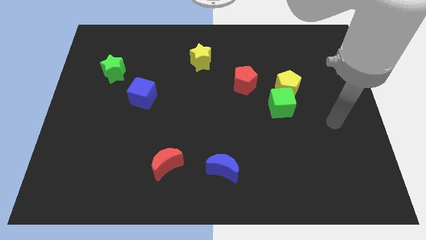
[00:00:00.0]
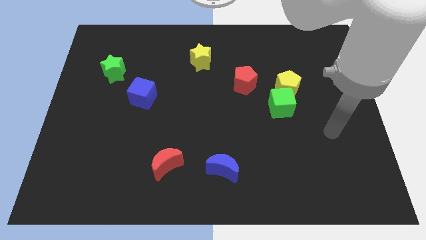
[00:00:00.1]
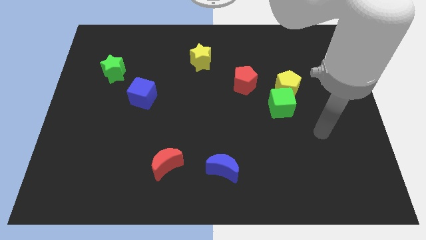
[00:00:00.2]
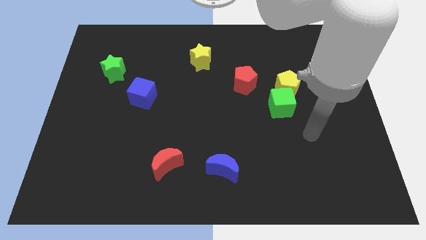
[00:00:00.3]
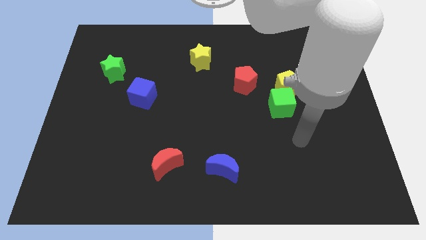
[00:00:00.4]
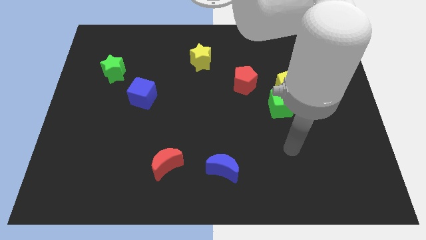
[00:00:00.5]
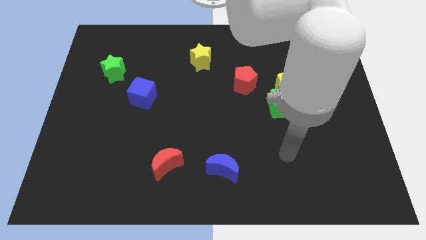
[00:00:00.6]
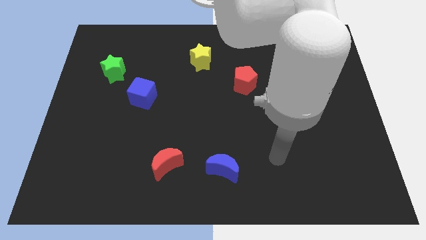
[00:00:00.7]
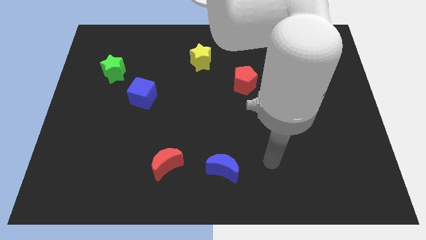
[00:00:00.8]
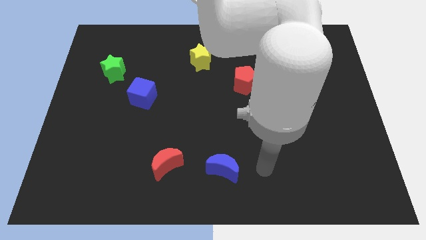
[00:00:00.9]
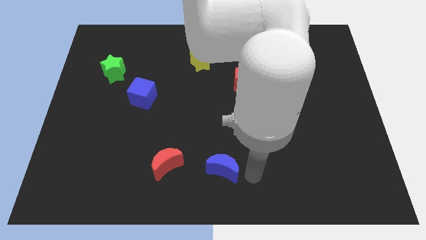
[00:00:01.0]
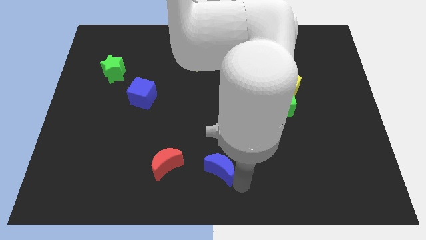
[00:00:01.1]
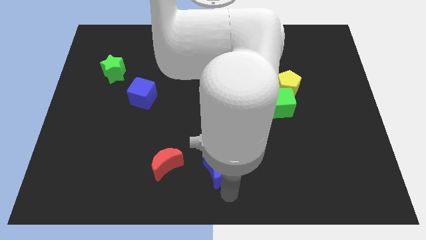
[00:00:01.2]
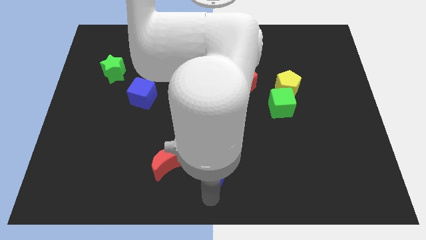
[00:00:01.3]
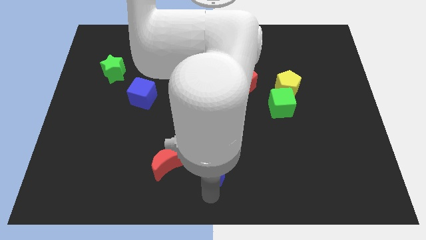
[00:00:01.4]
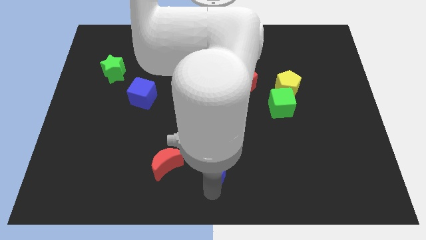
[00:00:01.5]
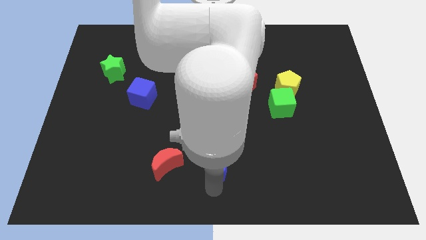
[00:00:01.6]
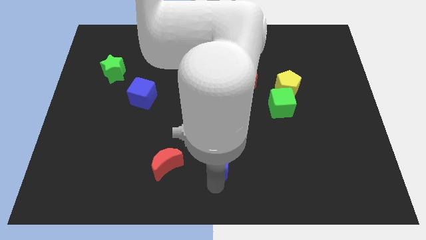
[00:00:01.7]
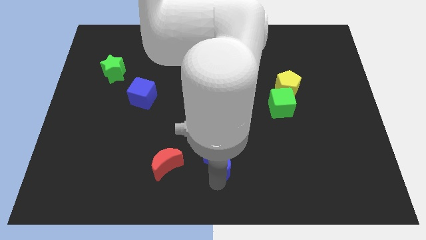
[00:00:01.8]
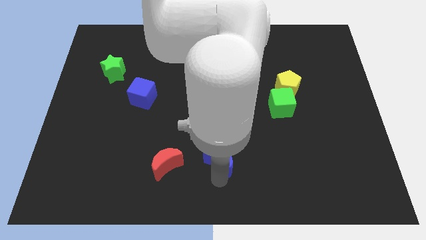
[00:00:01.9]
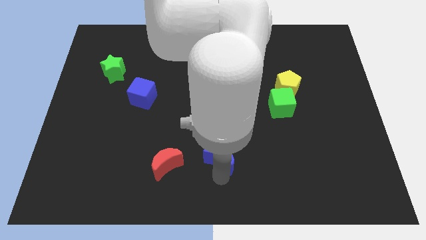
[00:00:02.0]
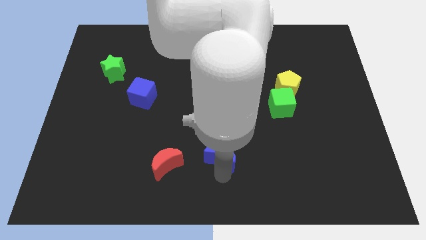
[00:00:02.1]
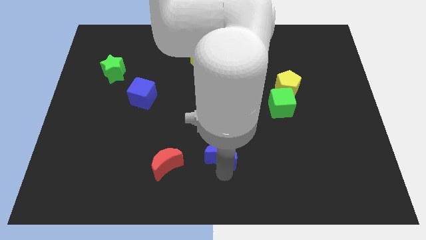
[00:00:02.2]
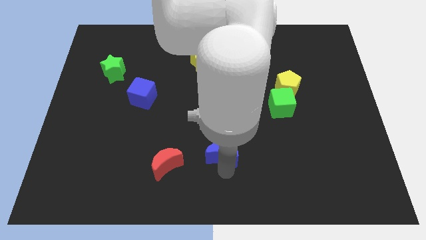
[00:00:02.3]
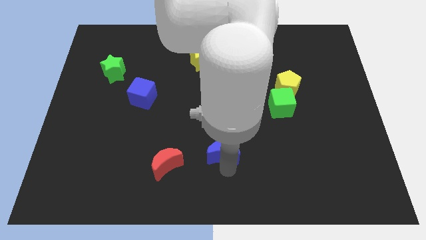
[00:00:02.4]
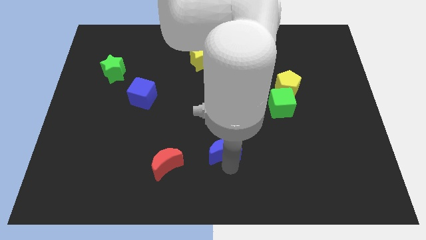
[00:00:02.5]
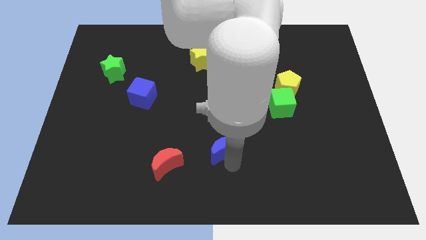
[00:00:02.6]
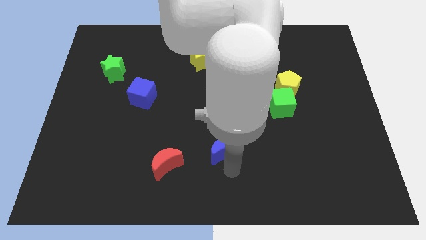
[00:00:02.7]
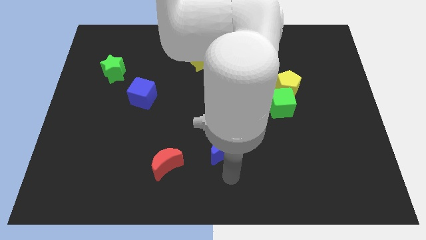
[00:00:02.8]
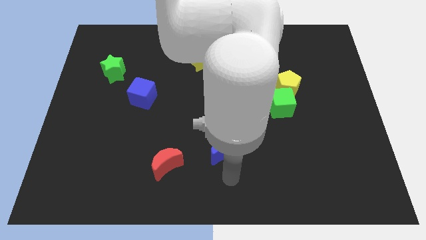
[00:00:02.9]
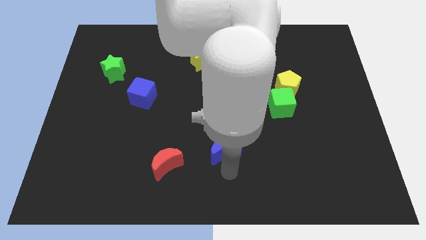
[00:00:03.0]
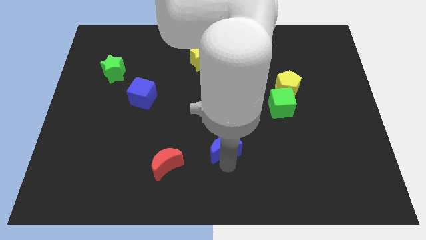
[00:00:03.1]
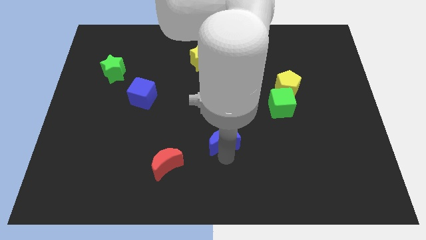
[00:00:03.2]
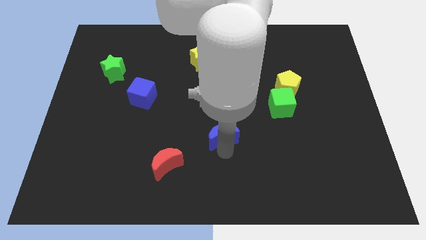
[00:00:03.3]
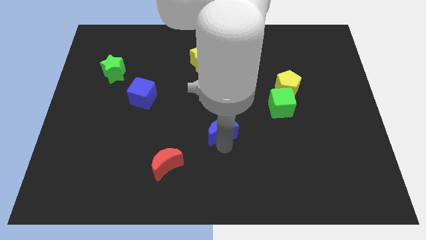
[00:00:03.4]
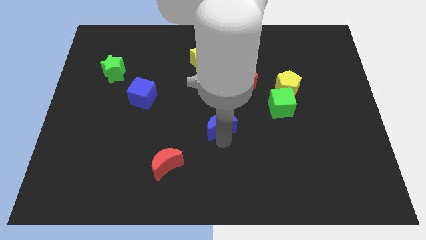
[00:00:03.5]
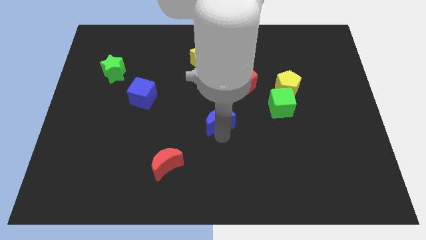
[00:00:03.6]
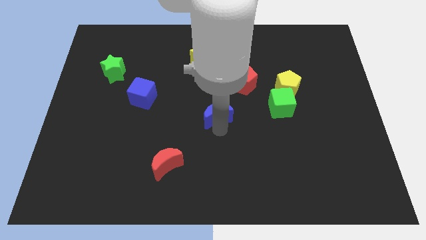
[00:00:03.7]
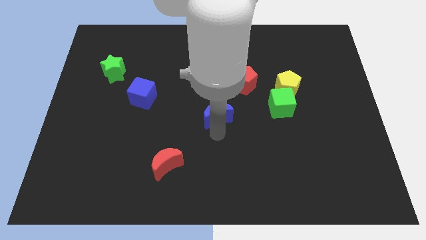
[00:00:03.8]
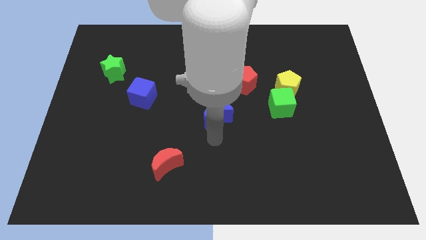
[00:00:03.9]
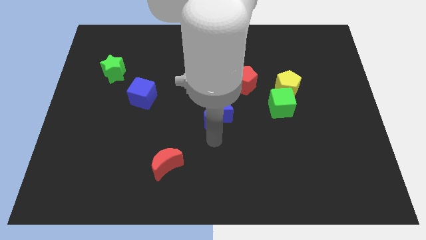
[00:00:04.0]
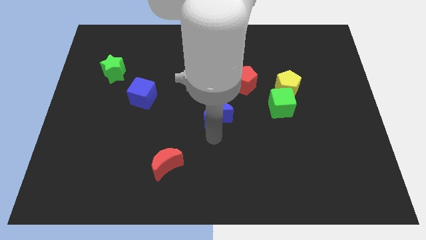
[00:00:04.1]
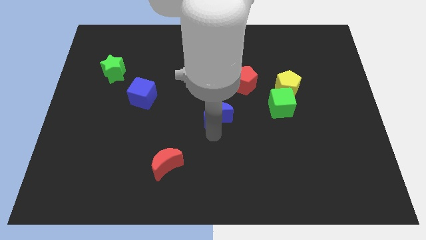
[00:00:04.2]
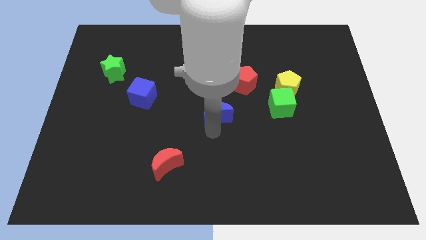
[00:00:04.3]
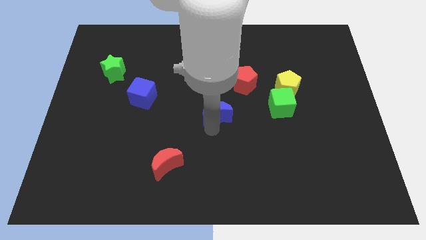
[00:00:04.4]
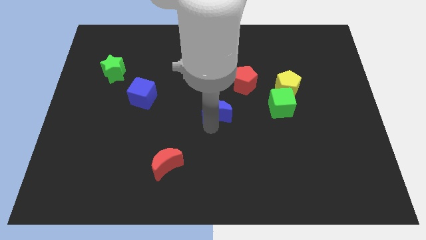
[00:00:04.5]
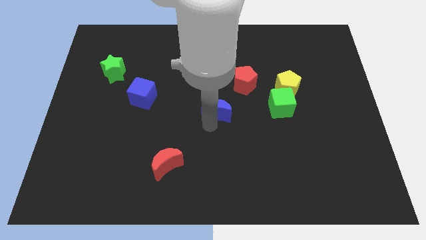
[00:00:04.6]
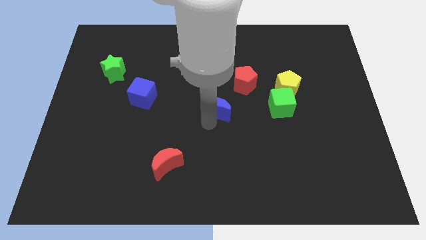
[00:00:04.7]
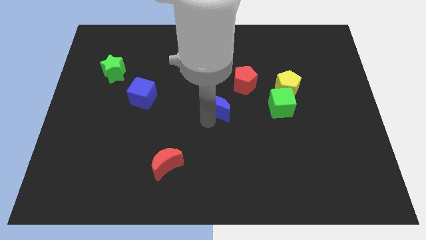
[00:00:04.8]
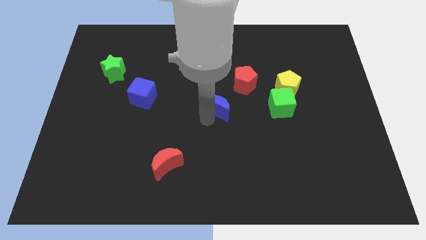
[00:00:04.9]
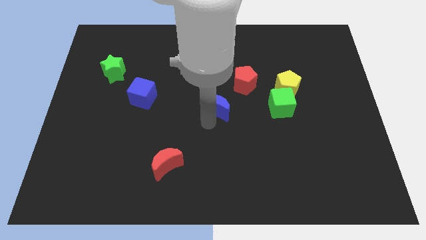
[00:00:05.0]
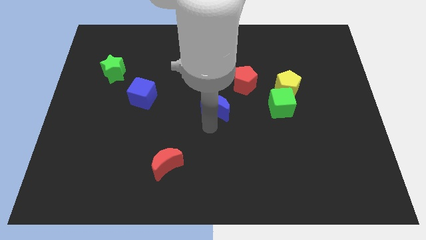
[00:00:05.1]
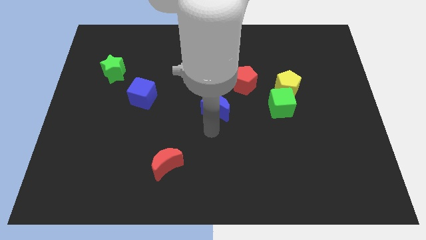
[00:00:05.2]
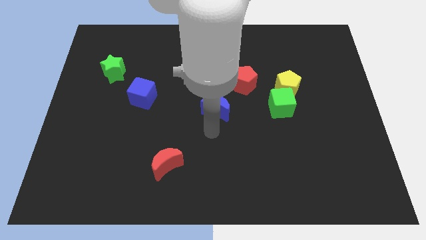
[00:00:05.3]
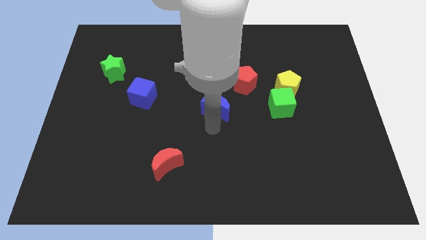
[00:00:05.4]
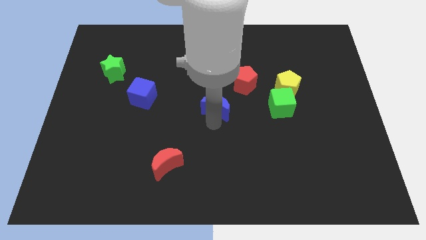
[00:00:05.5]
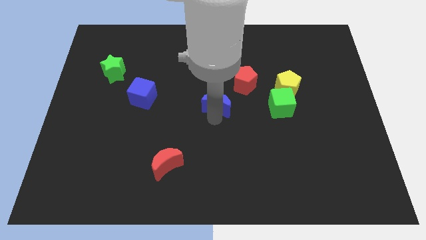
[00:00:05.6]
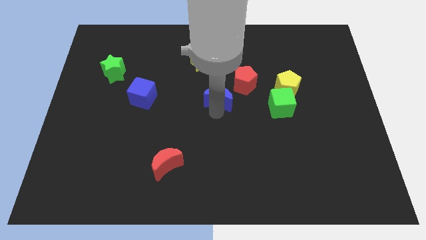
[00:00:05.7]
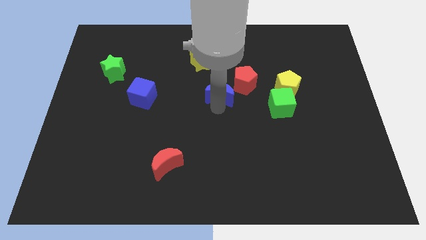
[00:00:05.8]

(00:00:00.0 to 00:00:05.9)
move the blue moon upwards

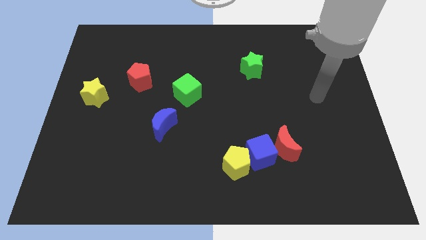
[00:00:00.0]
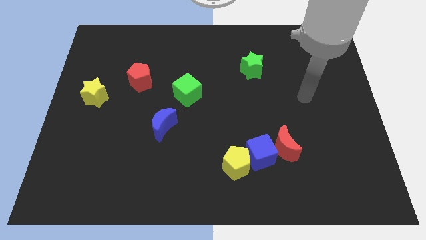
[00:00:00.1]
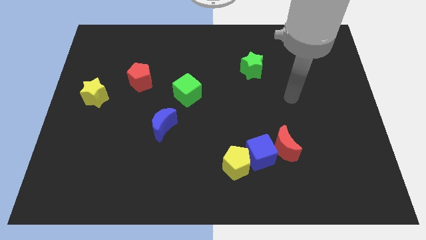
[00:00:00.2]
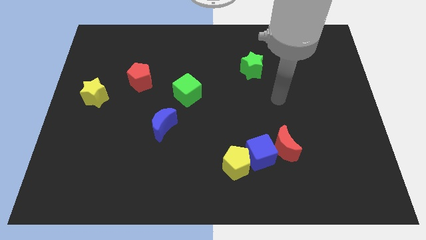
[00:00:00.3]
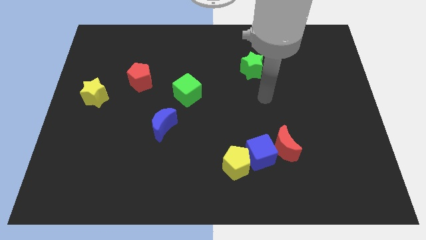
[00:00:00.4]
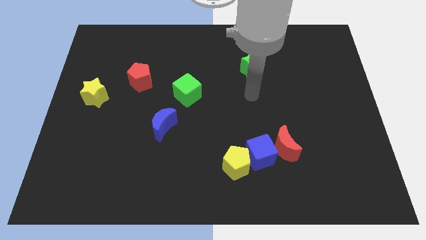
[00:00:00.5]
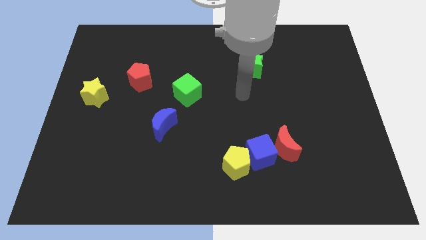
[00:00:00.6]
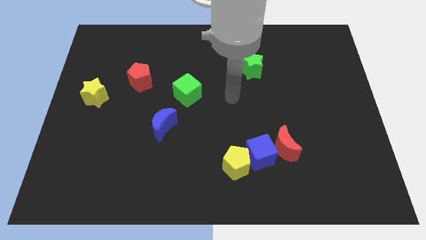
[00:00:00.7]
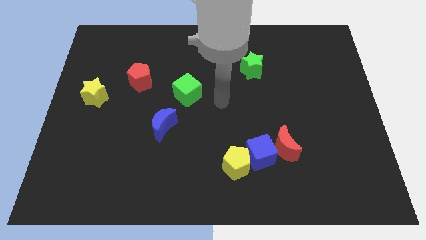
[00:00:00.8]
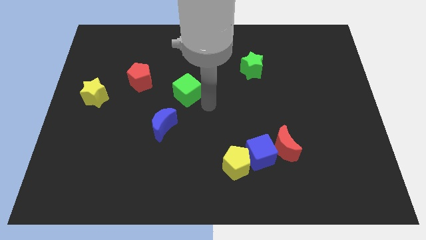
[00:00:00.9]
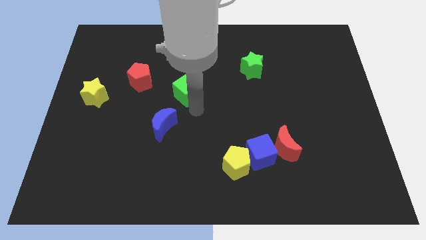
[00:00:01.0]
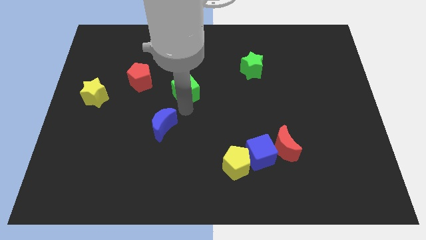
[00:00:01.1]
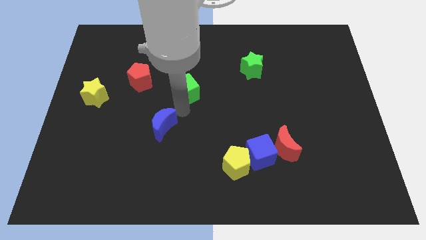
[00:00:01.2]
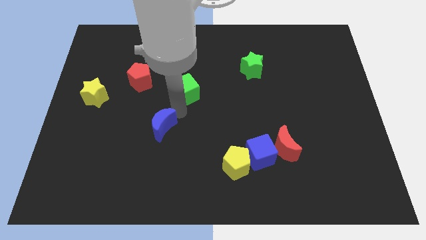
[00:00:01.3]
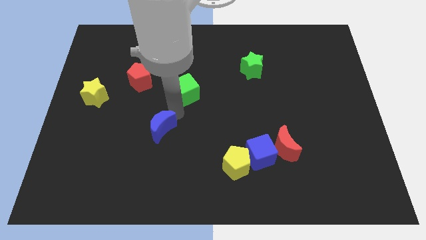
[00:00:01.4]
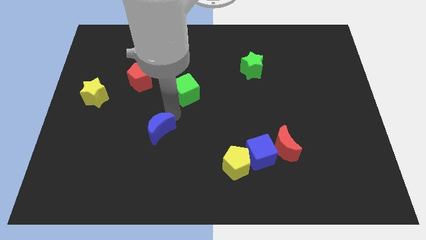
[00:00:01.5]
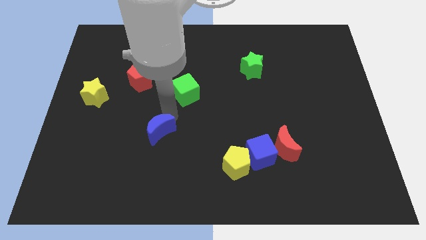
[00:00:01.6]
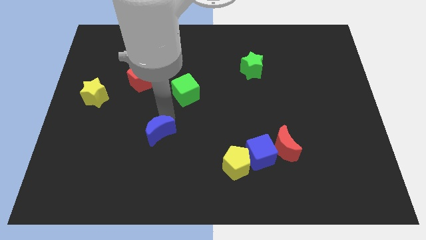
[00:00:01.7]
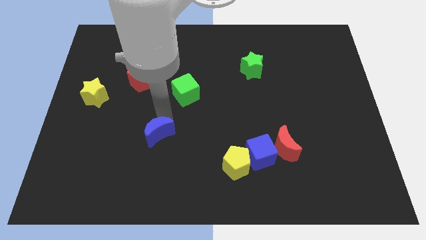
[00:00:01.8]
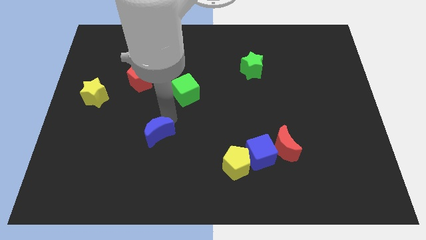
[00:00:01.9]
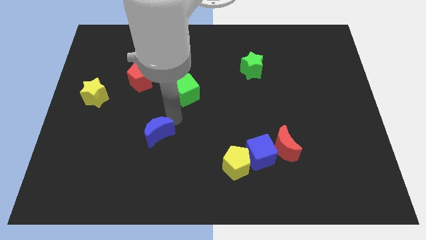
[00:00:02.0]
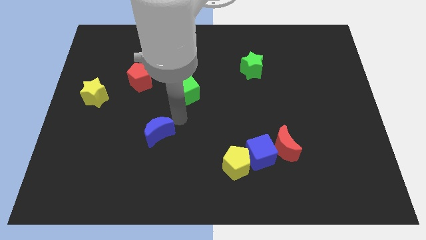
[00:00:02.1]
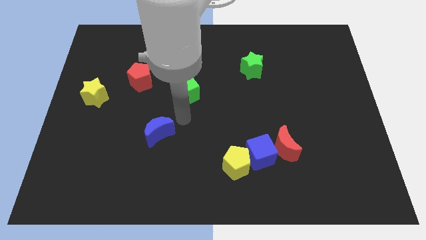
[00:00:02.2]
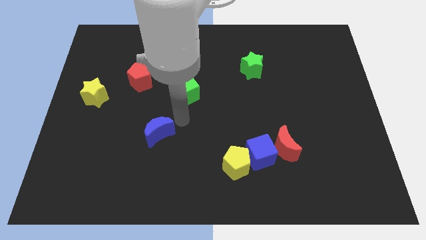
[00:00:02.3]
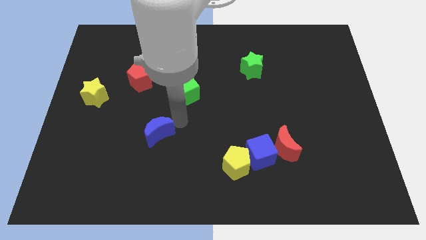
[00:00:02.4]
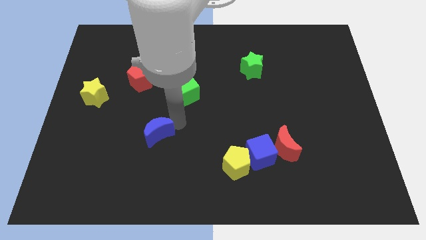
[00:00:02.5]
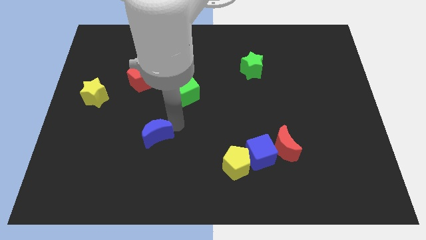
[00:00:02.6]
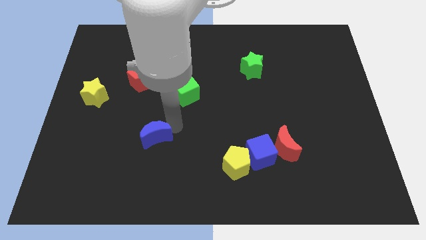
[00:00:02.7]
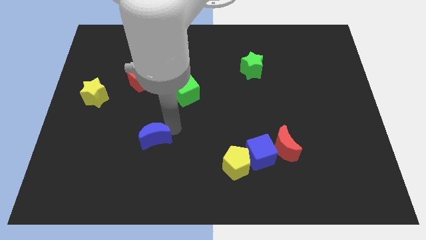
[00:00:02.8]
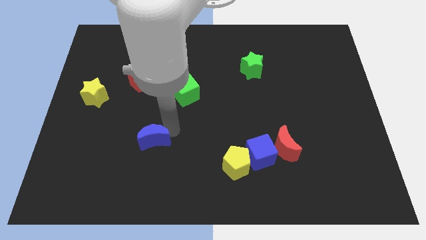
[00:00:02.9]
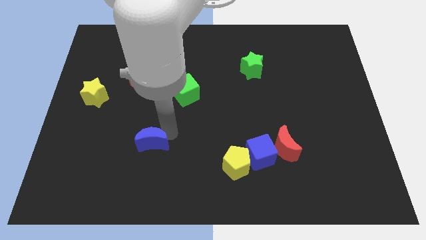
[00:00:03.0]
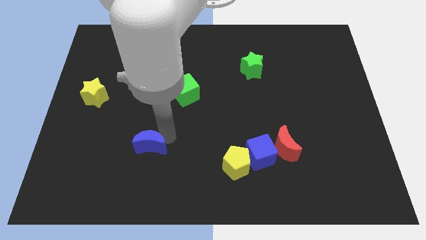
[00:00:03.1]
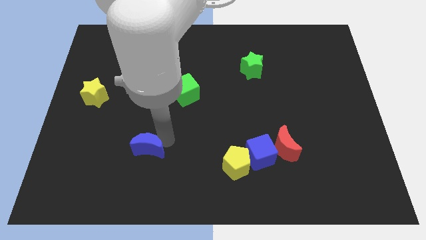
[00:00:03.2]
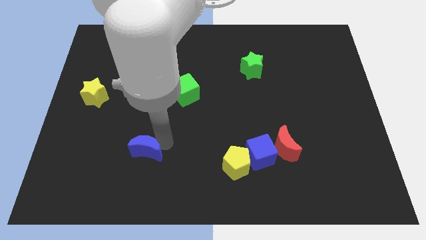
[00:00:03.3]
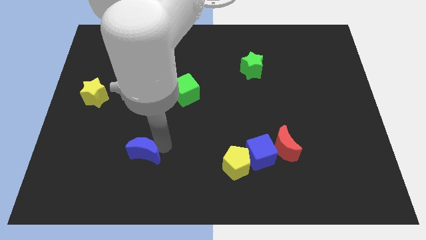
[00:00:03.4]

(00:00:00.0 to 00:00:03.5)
slightly slide the blue moon downwards and then to the left
